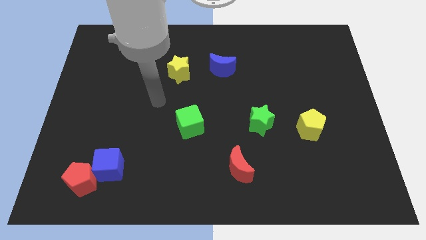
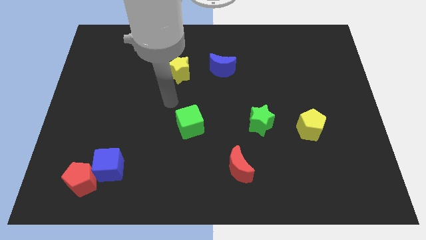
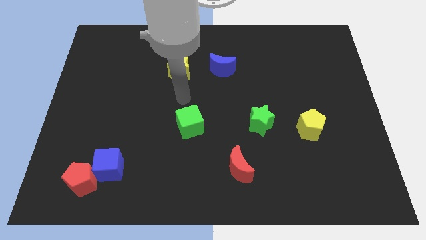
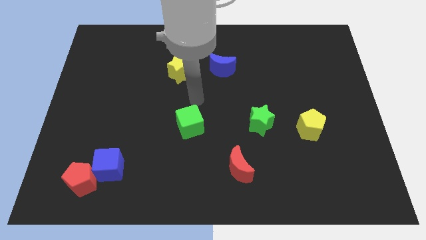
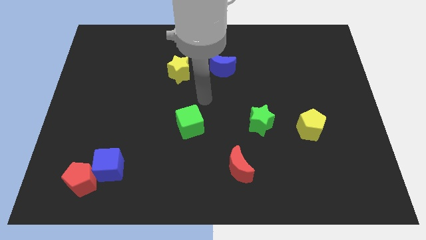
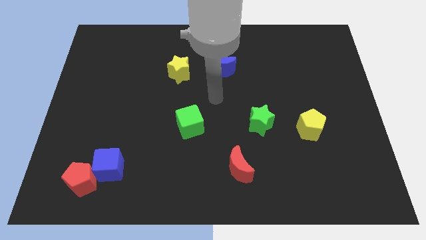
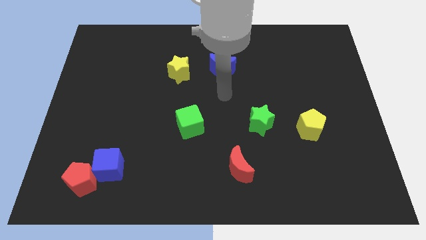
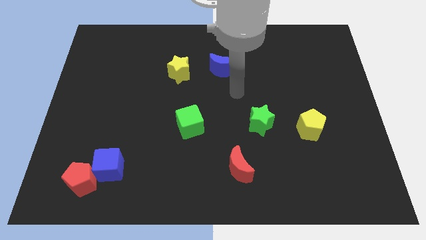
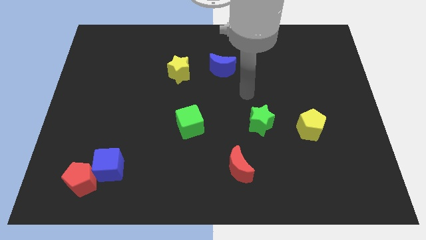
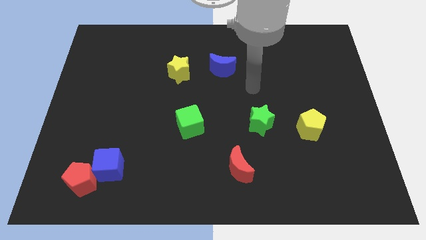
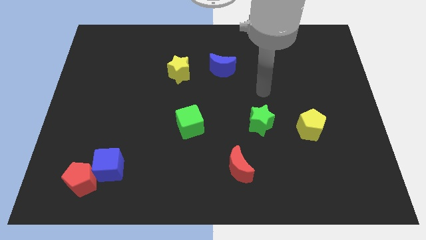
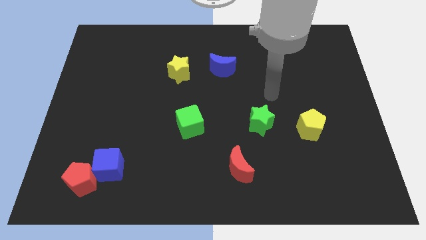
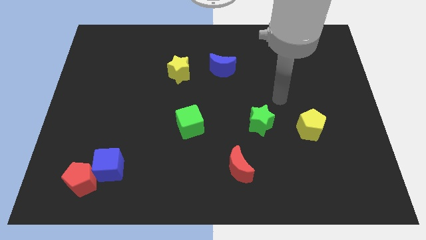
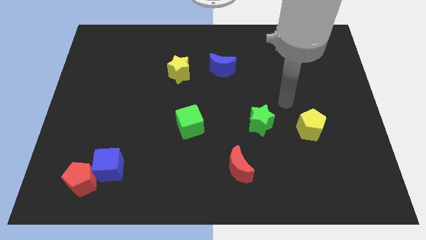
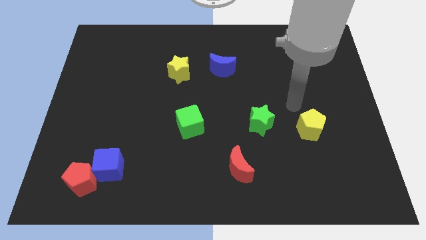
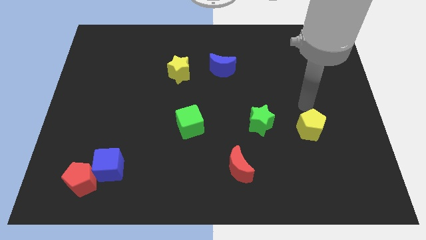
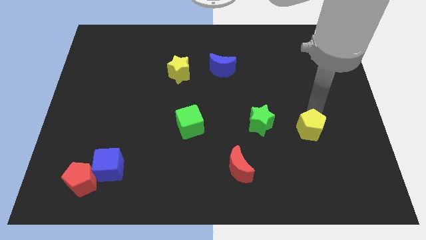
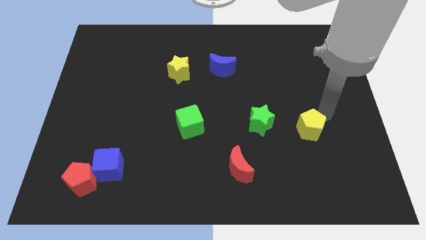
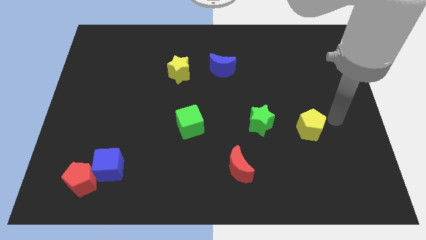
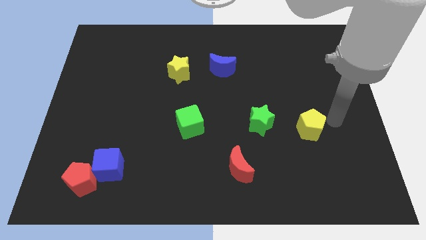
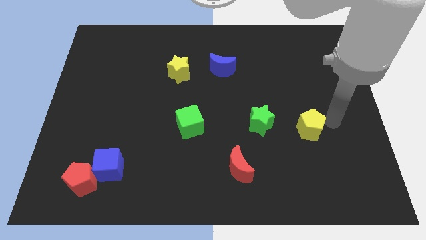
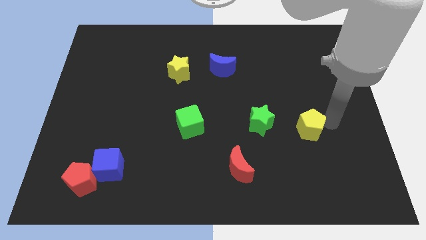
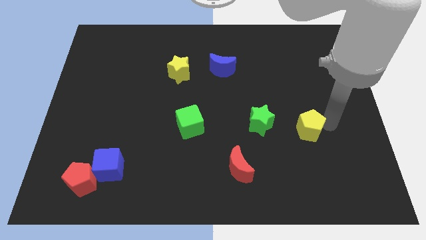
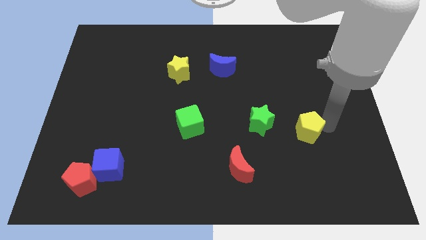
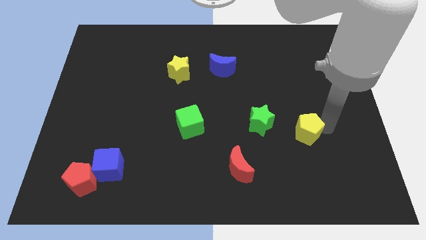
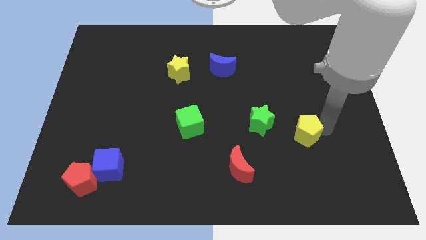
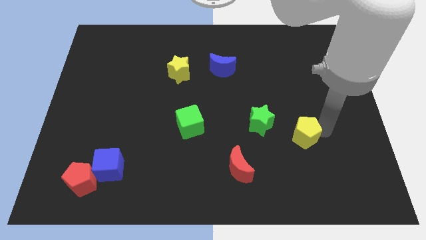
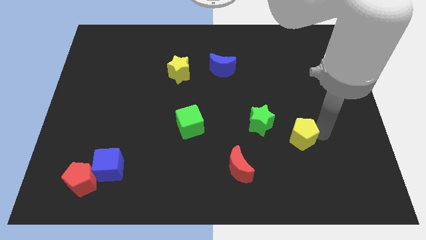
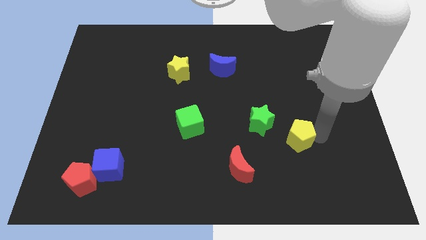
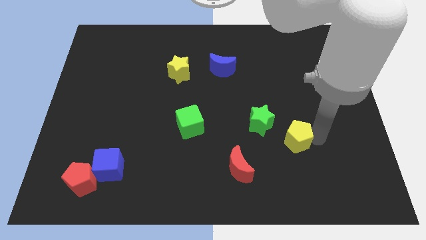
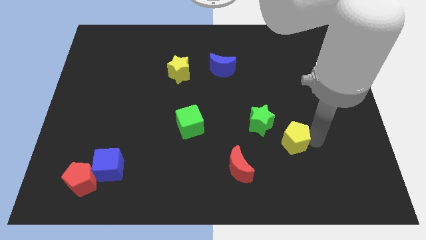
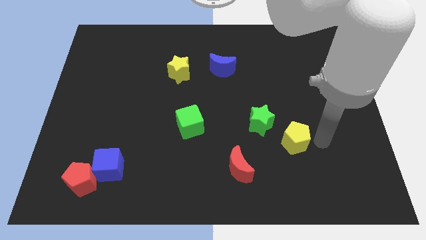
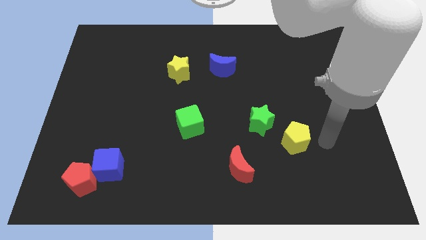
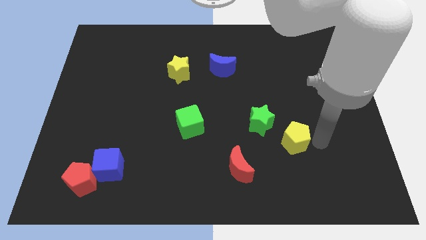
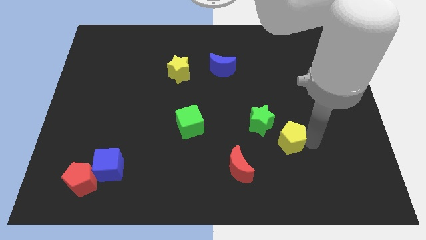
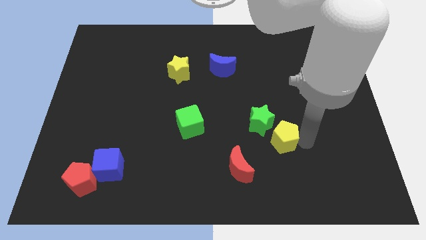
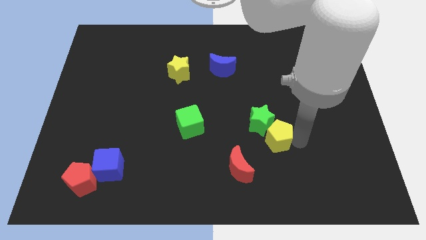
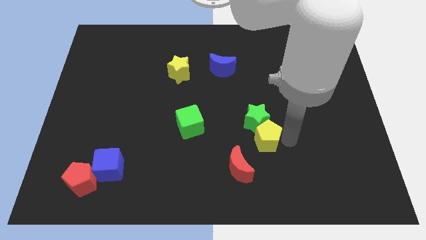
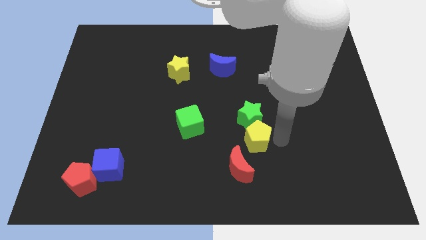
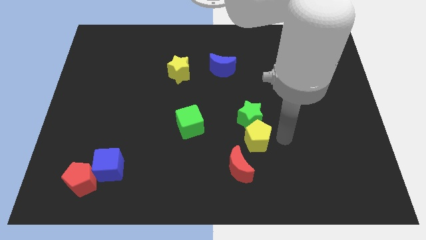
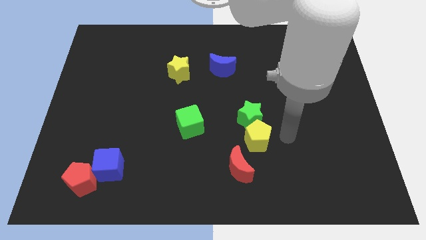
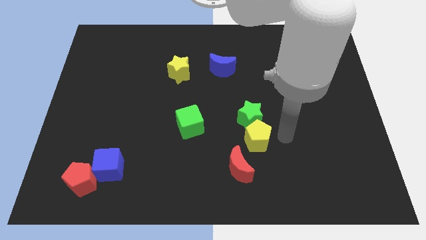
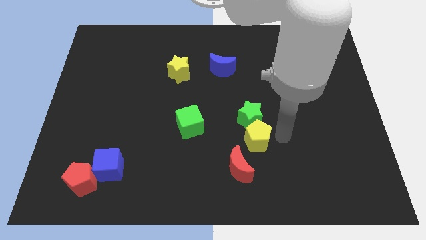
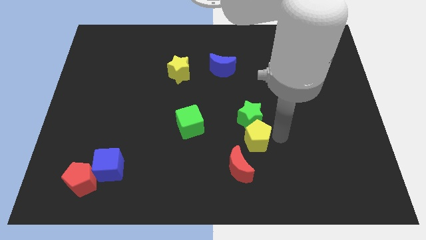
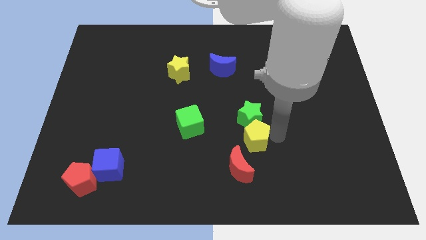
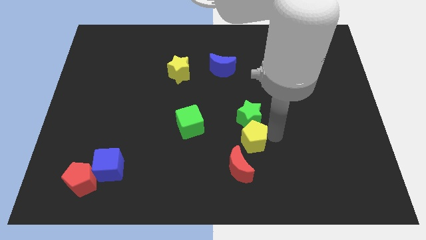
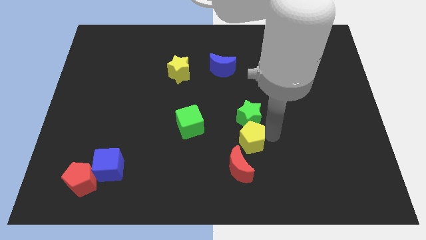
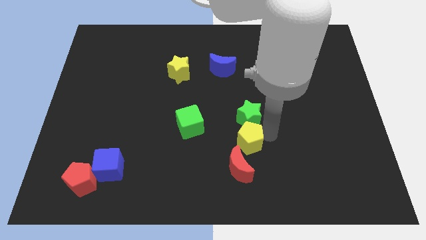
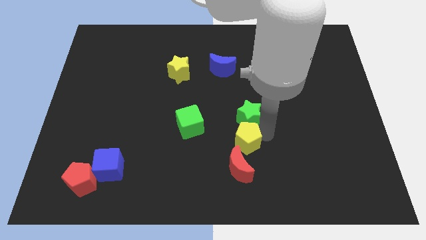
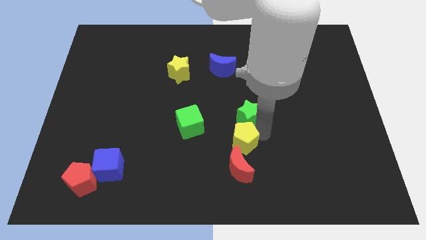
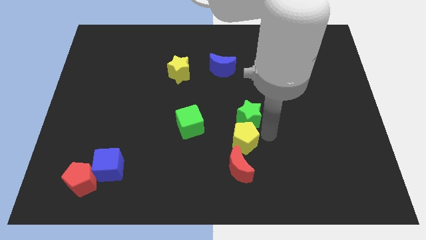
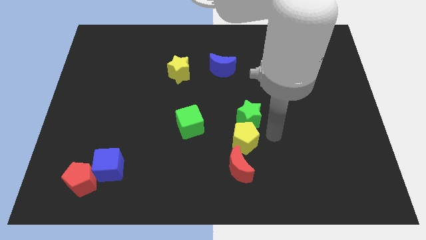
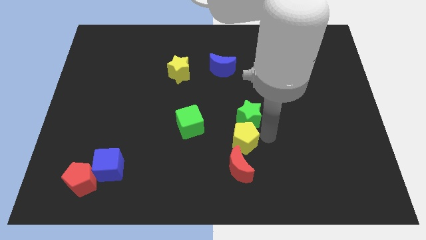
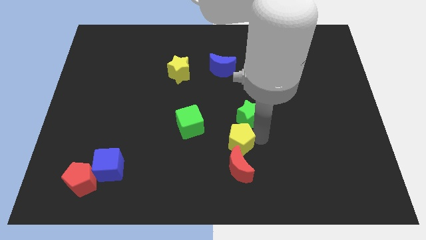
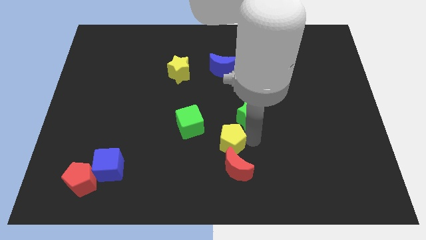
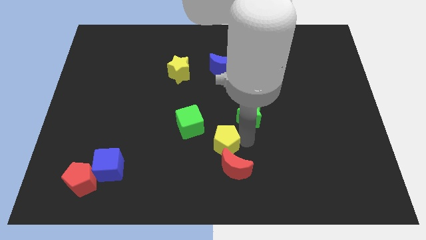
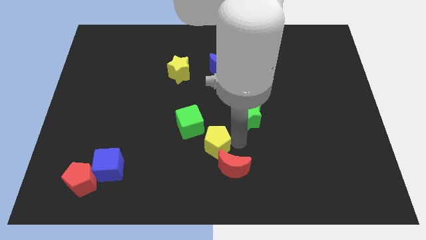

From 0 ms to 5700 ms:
move the yellow pentagon to the left

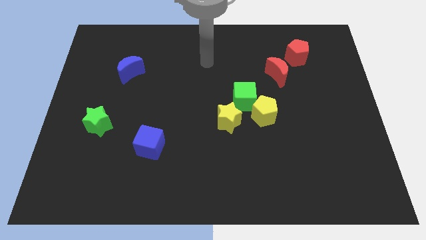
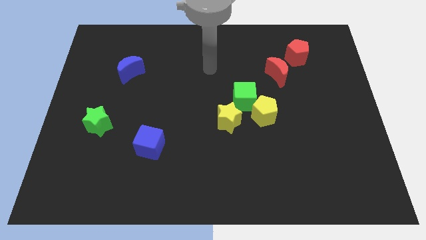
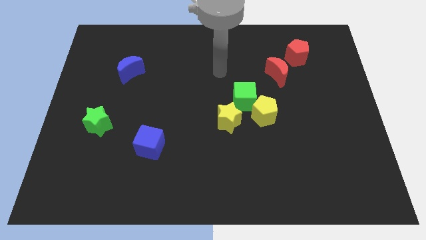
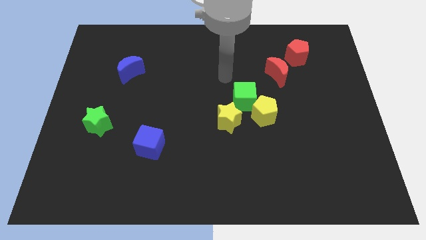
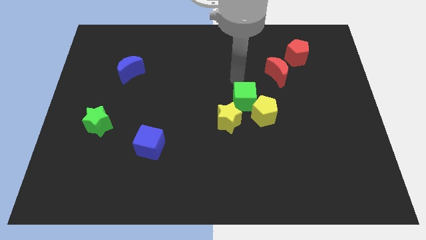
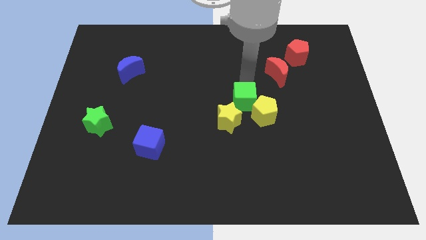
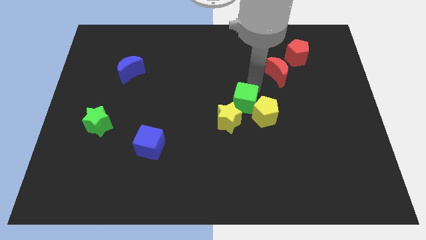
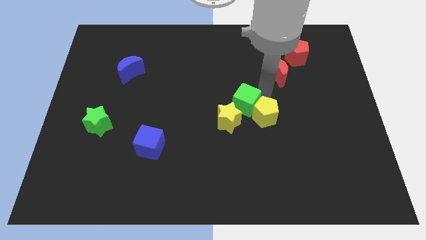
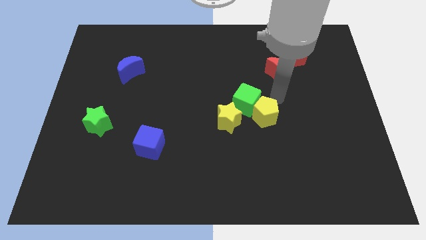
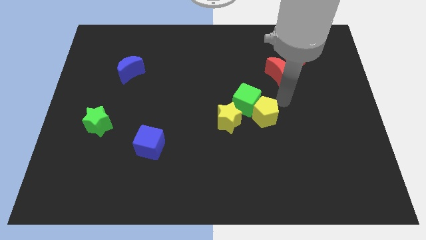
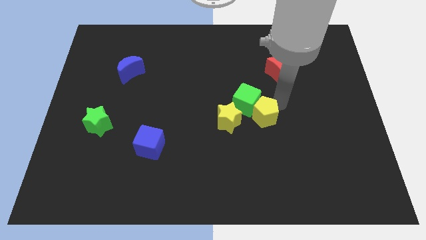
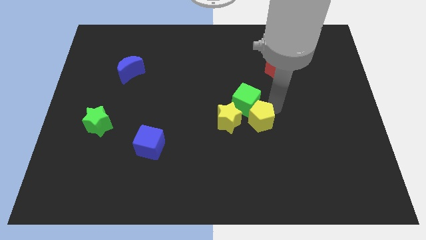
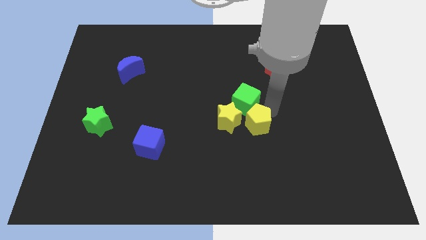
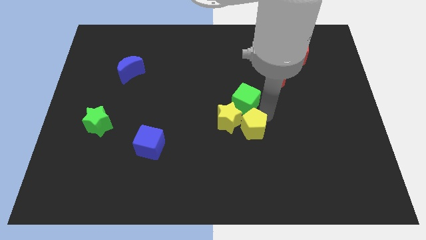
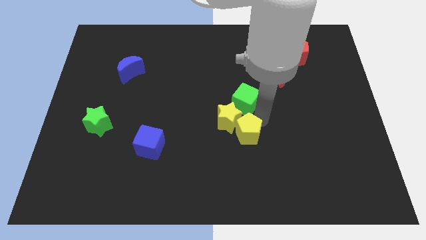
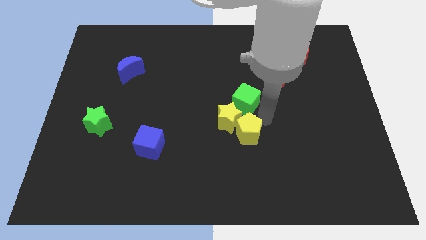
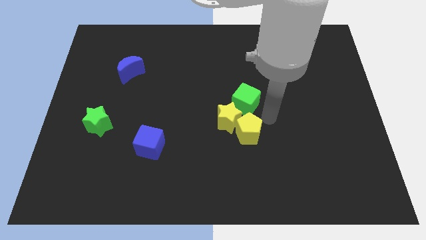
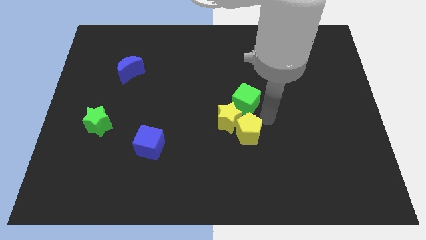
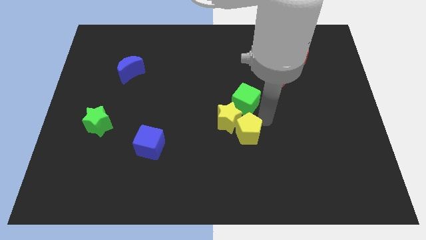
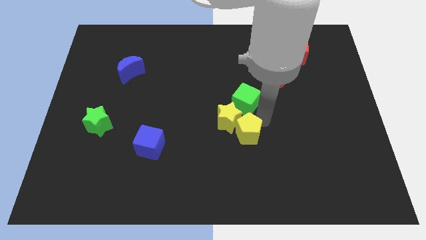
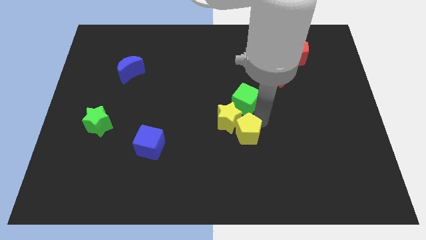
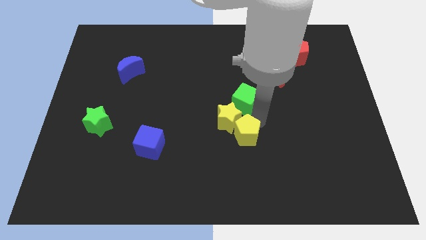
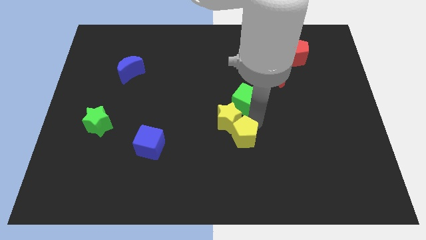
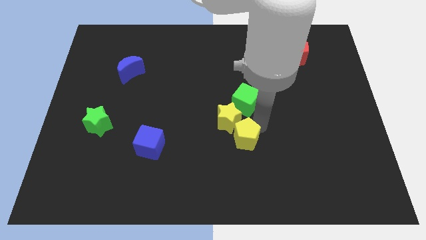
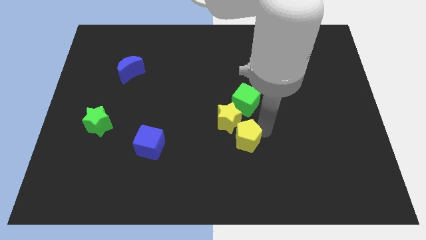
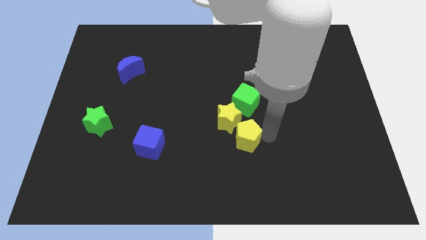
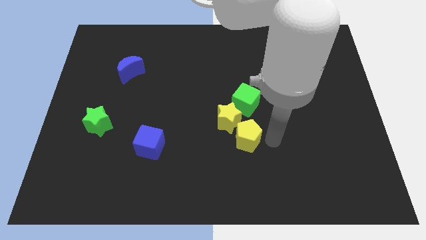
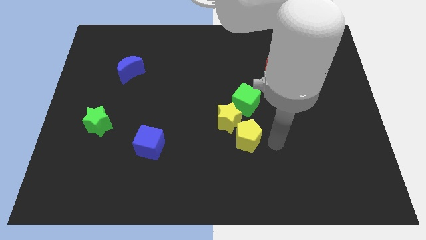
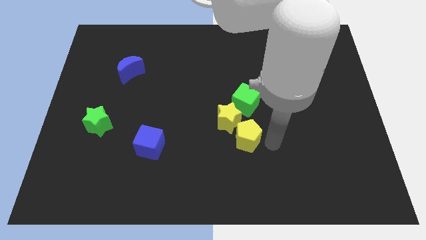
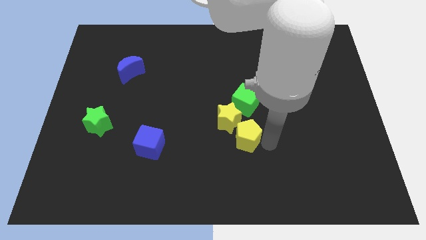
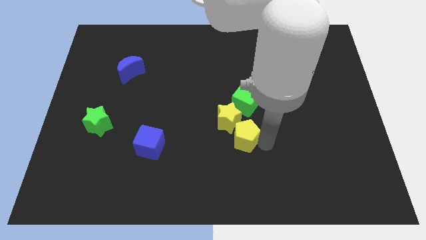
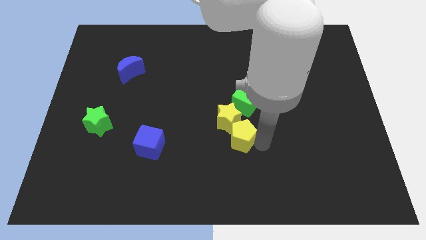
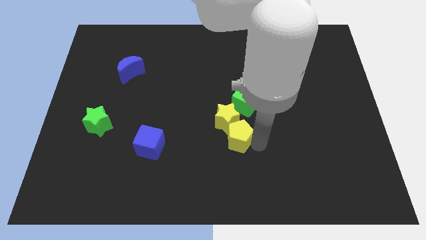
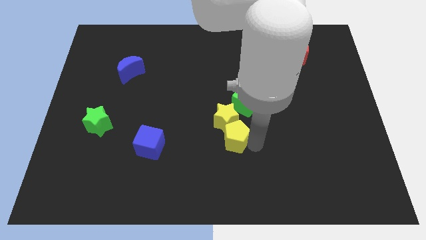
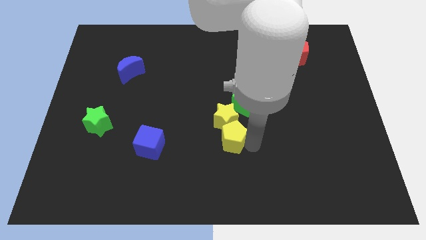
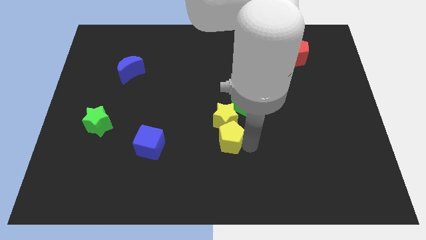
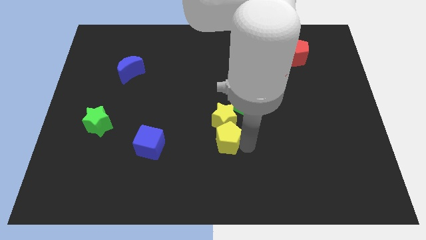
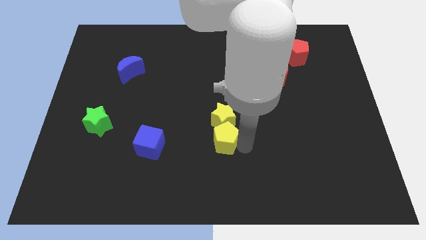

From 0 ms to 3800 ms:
slide the yellow pentagon somewhat to the left
